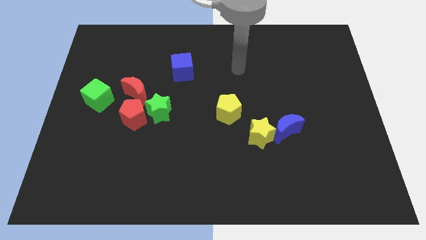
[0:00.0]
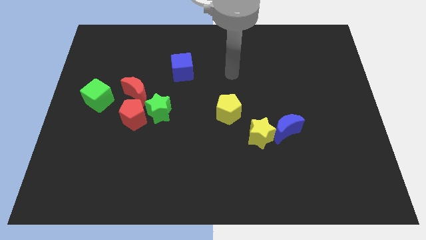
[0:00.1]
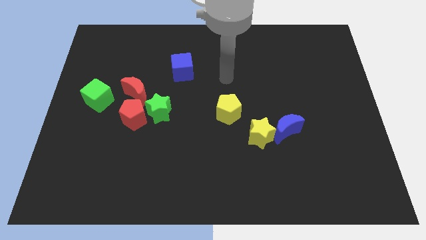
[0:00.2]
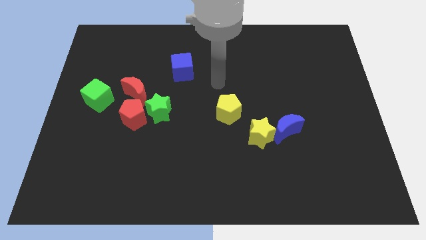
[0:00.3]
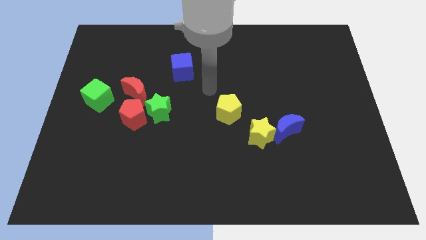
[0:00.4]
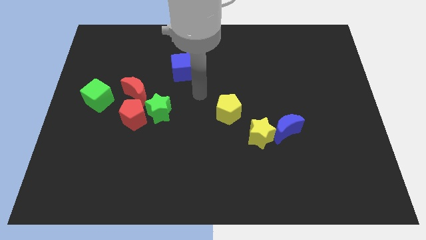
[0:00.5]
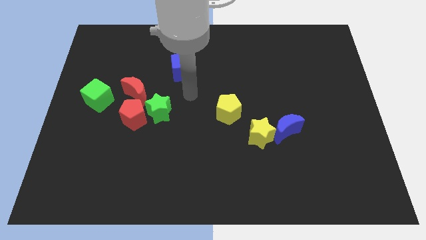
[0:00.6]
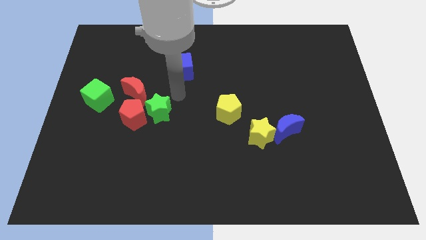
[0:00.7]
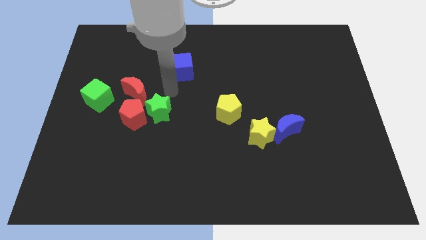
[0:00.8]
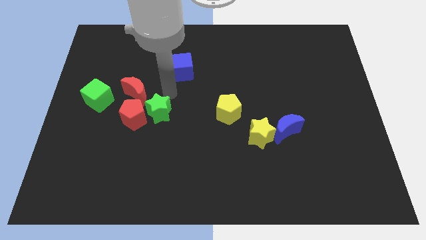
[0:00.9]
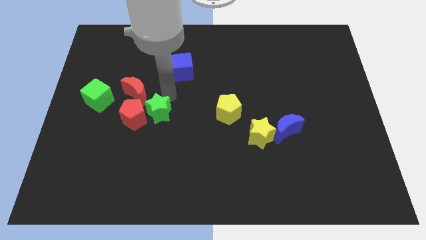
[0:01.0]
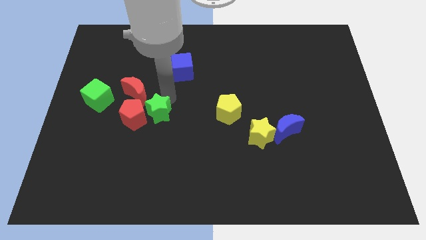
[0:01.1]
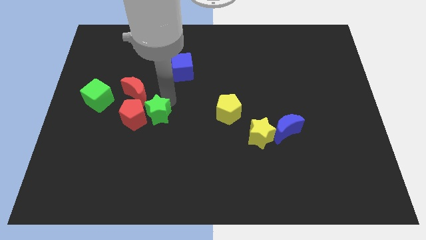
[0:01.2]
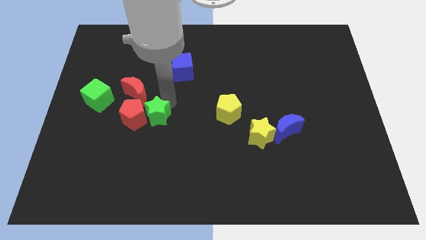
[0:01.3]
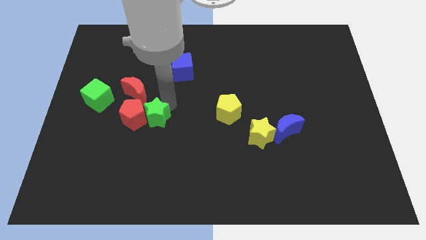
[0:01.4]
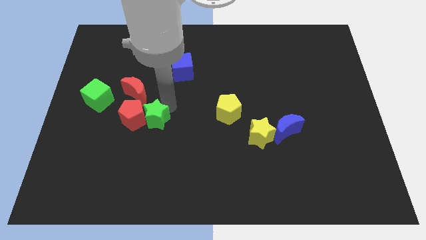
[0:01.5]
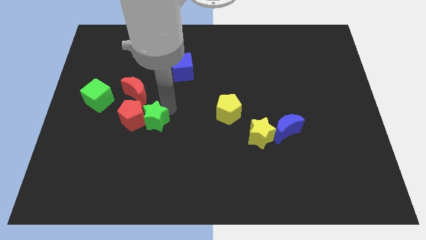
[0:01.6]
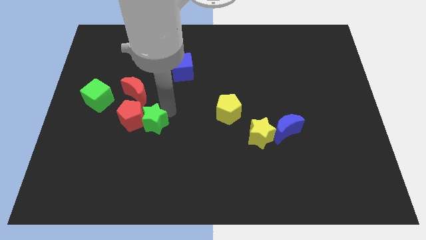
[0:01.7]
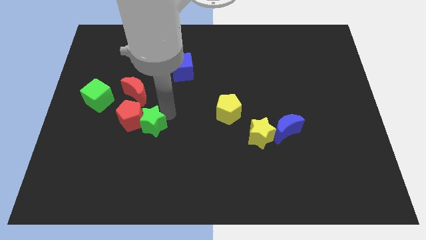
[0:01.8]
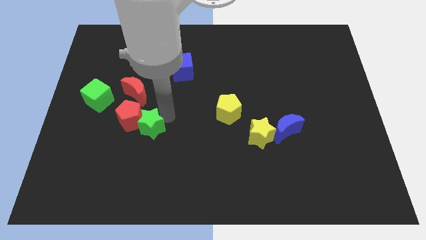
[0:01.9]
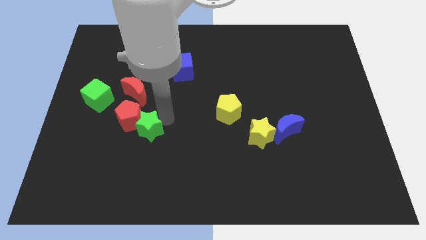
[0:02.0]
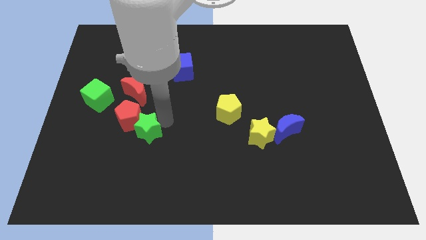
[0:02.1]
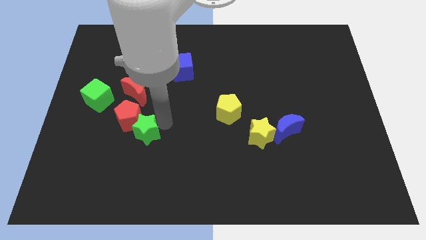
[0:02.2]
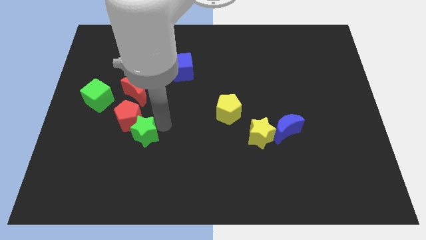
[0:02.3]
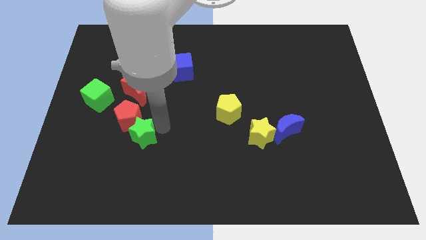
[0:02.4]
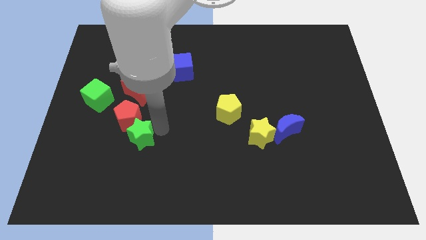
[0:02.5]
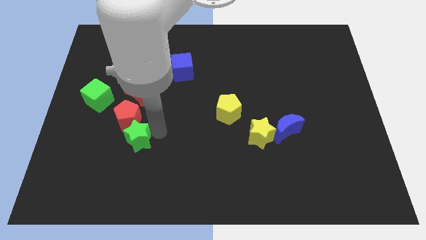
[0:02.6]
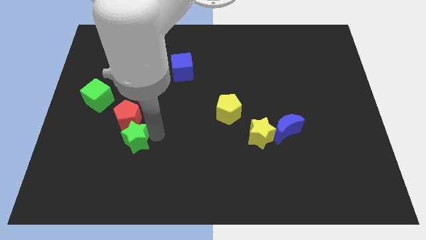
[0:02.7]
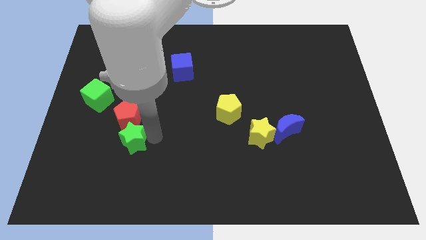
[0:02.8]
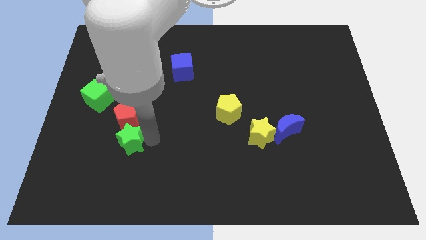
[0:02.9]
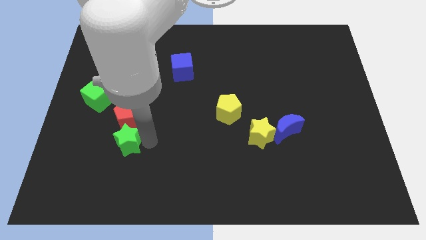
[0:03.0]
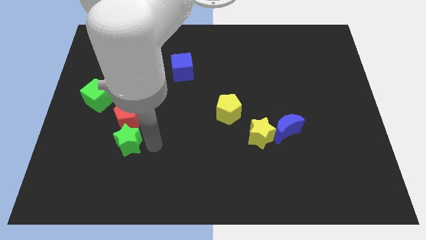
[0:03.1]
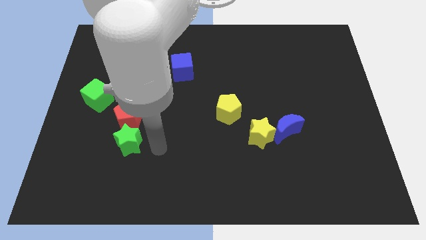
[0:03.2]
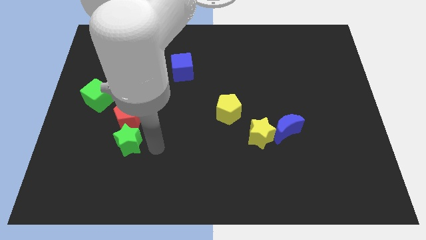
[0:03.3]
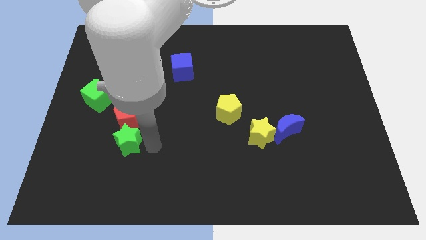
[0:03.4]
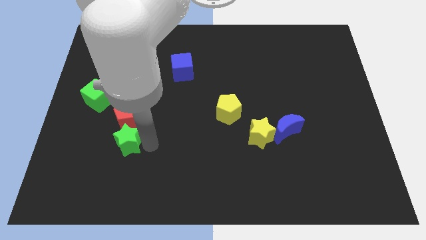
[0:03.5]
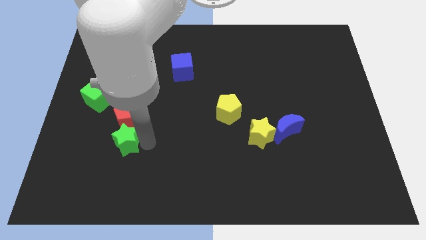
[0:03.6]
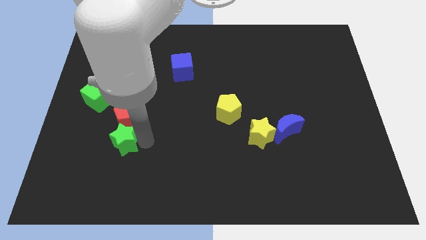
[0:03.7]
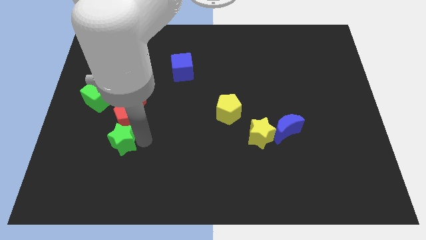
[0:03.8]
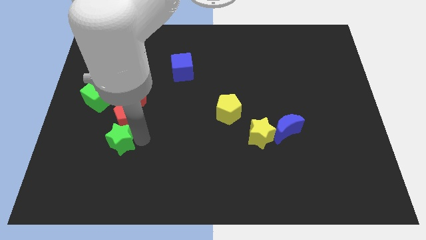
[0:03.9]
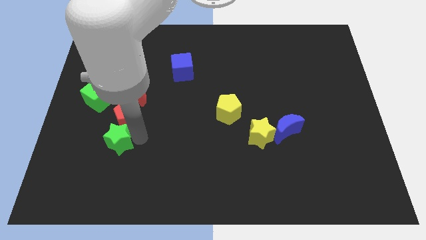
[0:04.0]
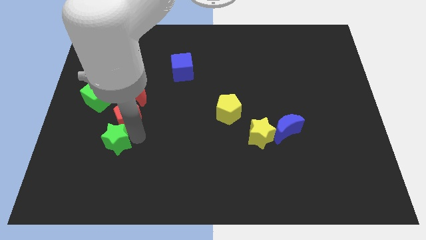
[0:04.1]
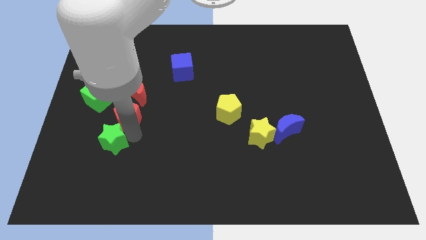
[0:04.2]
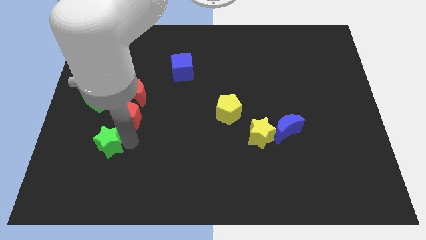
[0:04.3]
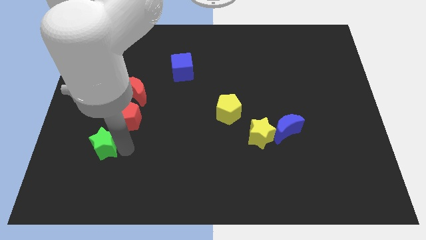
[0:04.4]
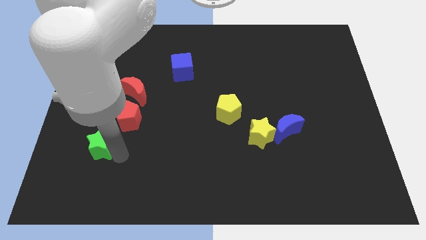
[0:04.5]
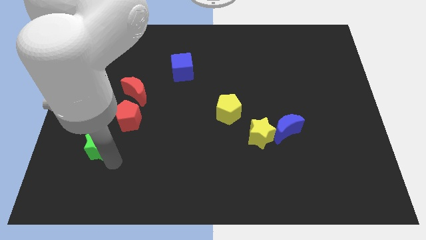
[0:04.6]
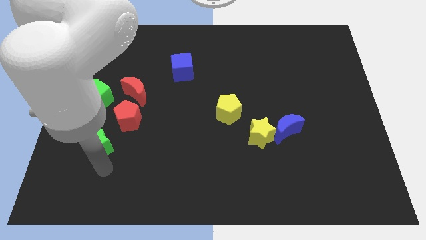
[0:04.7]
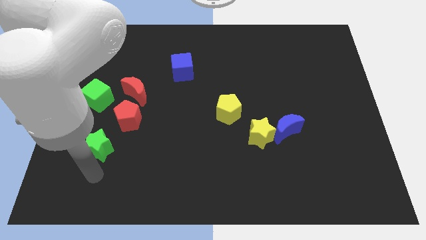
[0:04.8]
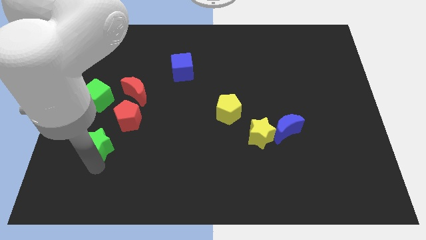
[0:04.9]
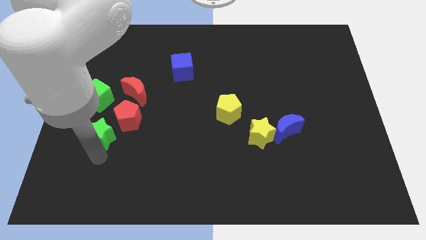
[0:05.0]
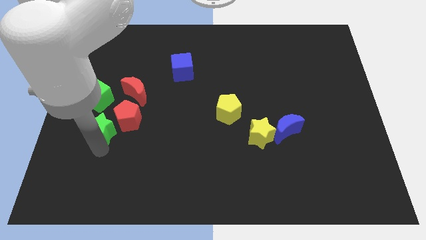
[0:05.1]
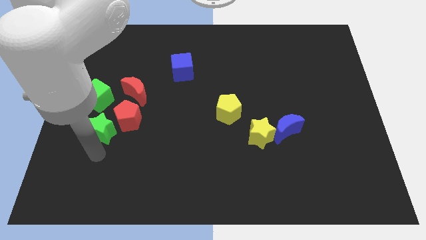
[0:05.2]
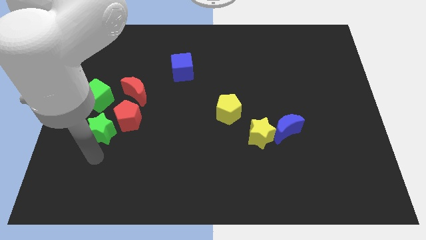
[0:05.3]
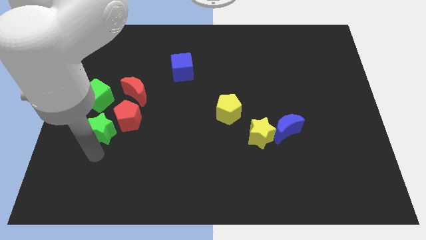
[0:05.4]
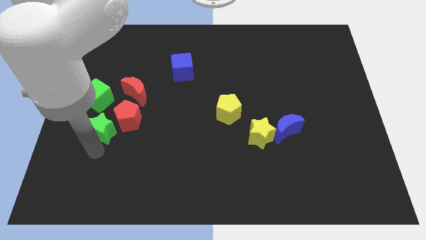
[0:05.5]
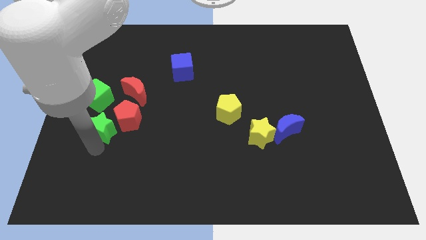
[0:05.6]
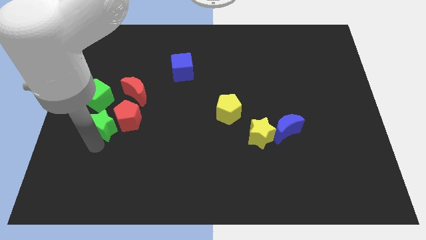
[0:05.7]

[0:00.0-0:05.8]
move the green star to the bottom left of the red moon

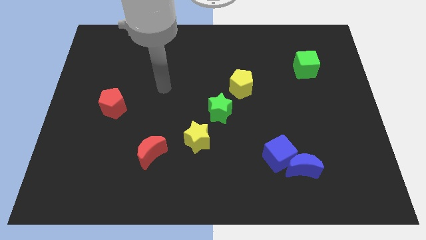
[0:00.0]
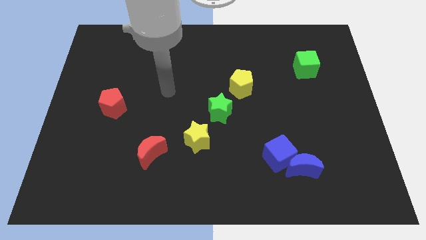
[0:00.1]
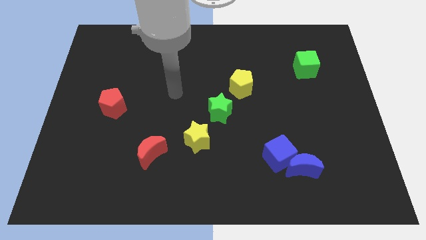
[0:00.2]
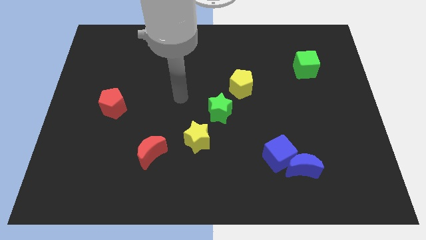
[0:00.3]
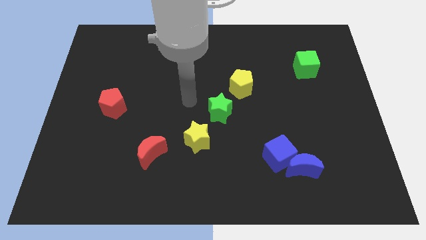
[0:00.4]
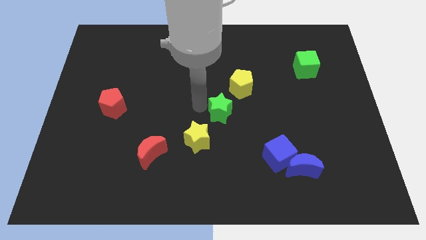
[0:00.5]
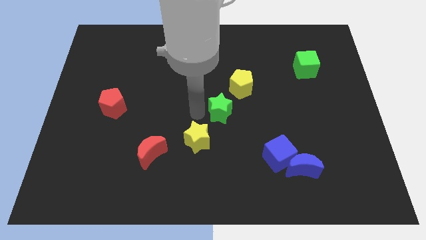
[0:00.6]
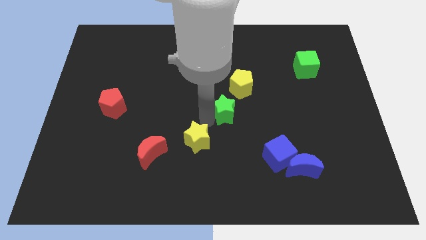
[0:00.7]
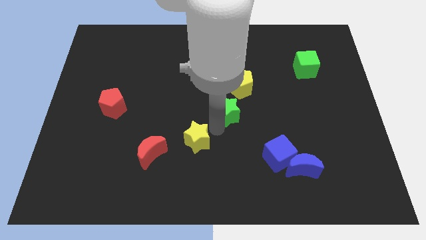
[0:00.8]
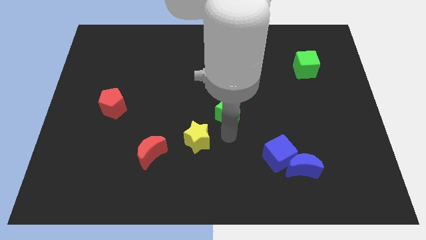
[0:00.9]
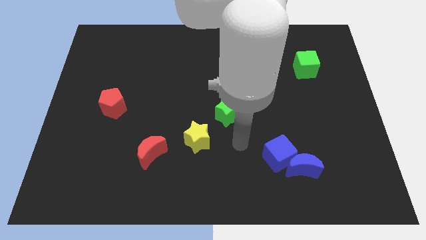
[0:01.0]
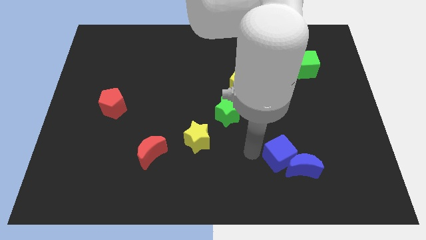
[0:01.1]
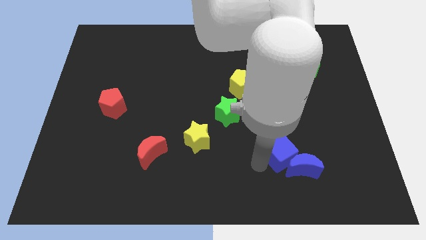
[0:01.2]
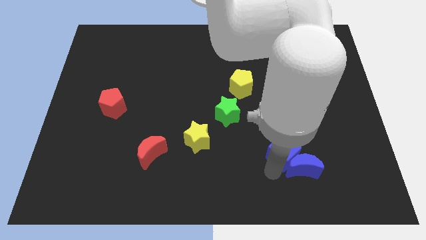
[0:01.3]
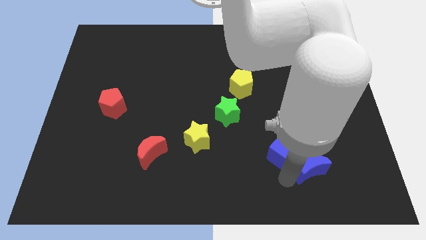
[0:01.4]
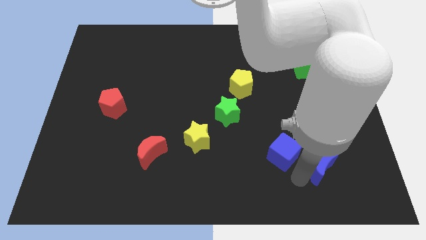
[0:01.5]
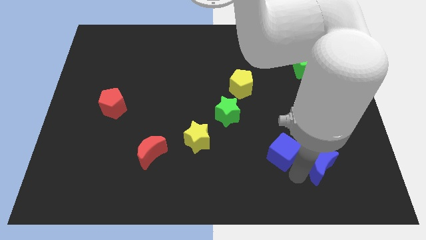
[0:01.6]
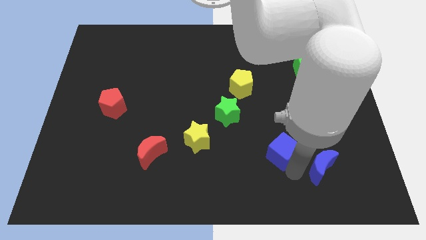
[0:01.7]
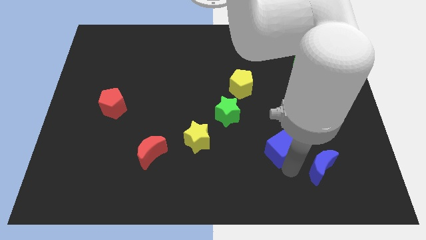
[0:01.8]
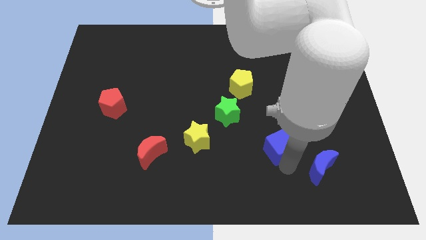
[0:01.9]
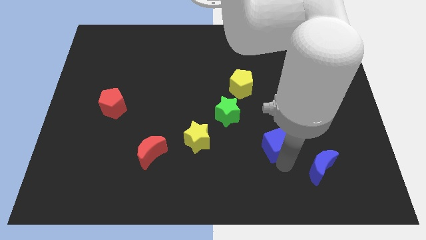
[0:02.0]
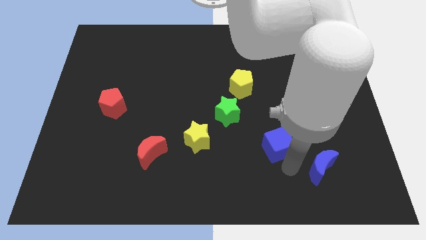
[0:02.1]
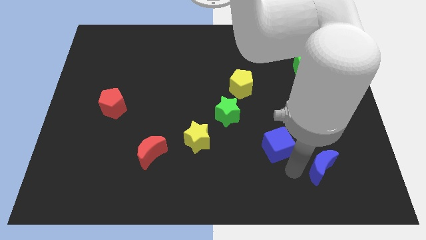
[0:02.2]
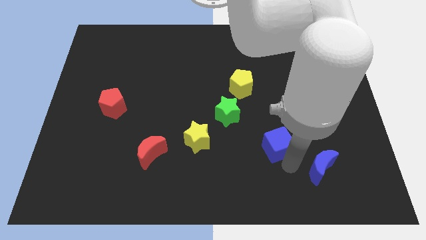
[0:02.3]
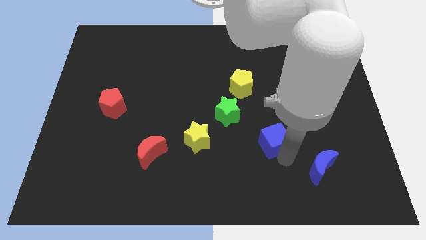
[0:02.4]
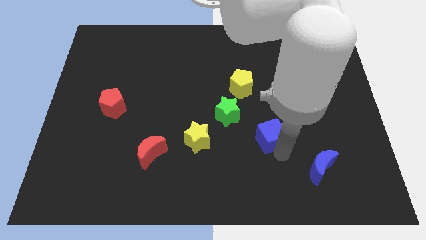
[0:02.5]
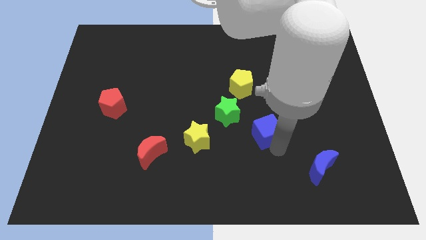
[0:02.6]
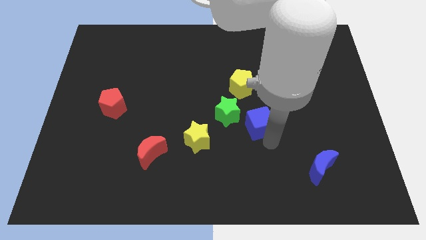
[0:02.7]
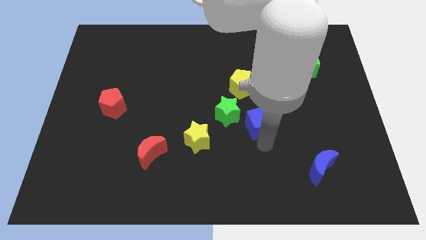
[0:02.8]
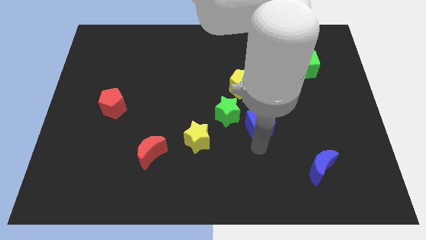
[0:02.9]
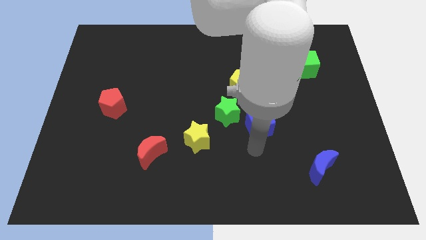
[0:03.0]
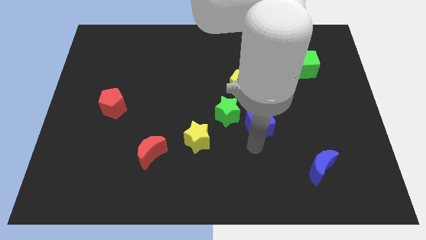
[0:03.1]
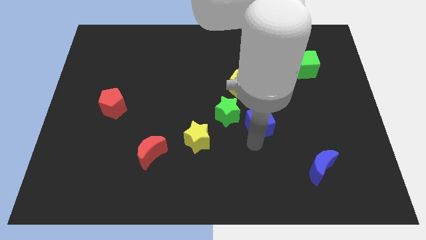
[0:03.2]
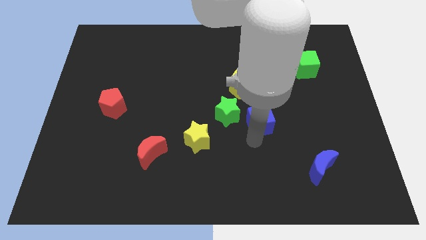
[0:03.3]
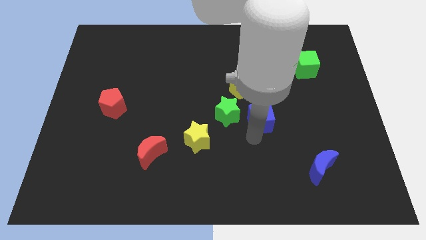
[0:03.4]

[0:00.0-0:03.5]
push the blue cube diagonally down and to the right of the yellow pentagon
